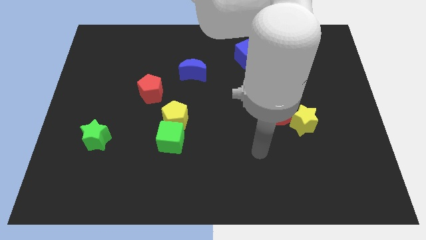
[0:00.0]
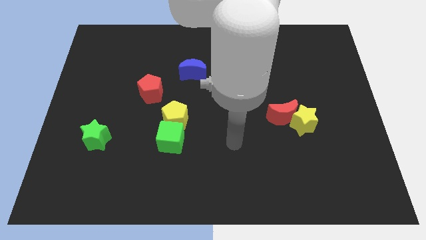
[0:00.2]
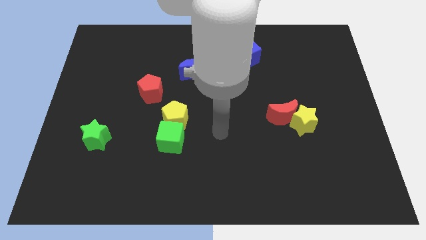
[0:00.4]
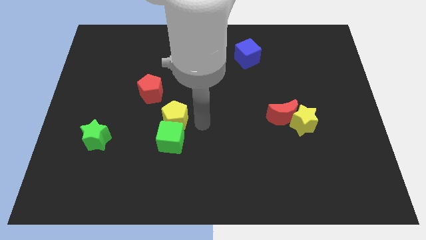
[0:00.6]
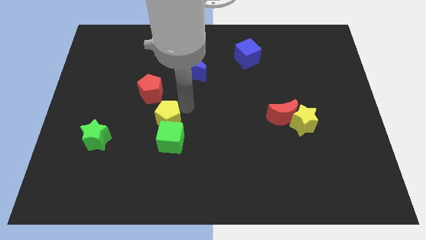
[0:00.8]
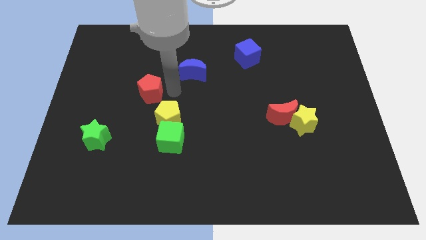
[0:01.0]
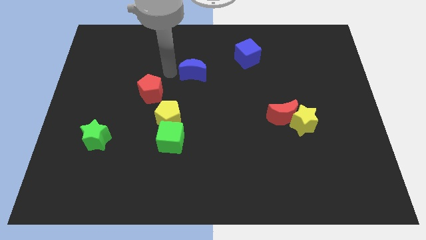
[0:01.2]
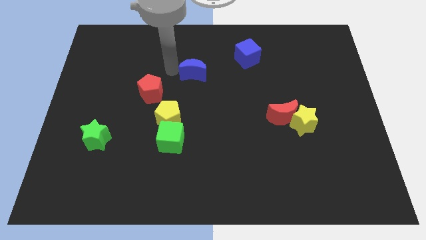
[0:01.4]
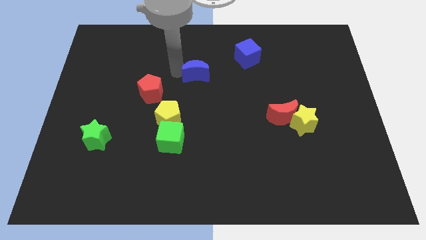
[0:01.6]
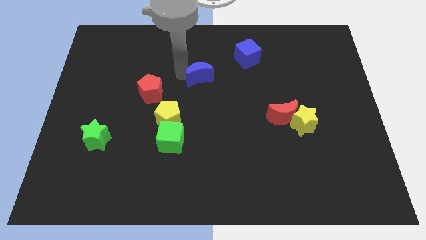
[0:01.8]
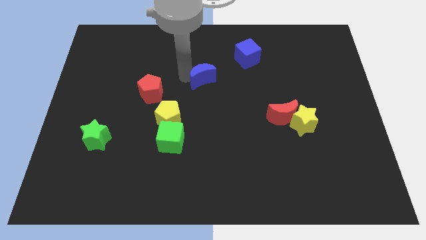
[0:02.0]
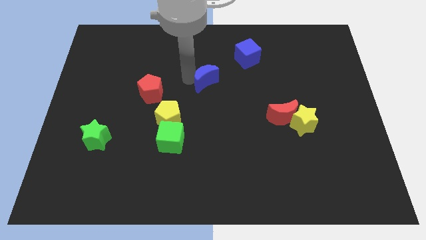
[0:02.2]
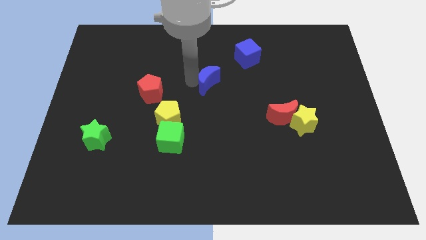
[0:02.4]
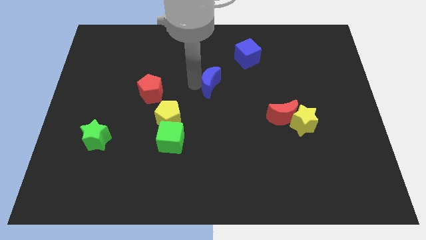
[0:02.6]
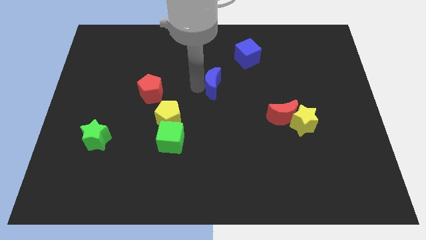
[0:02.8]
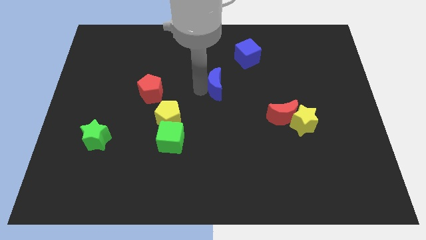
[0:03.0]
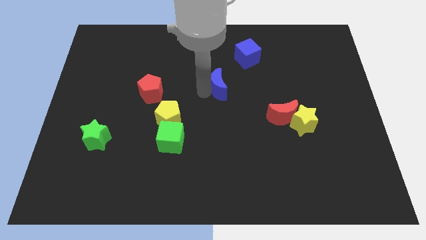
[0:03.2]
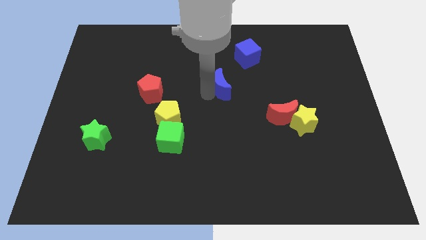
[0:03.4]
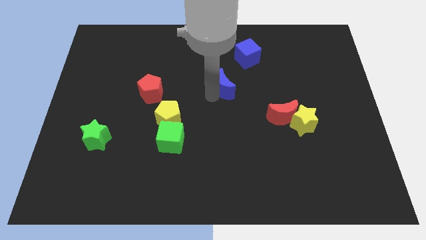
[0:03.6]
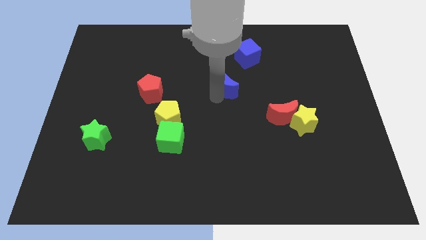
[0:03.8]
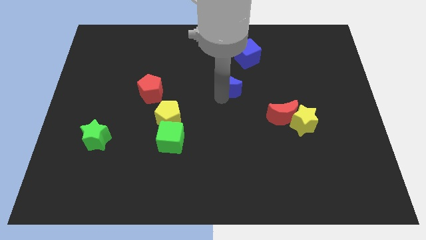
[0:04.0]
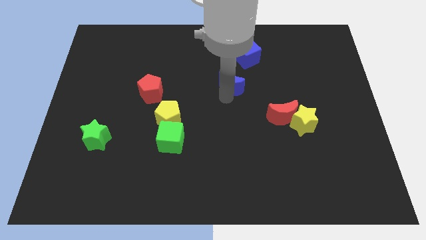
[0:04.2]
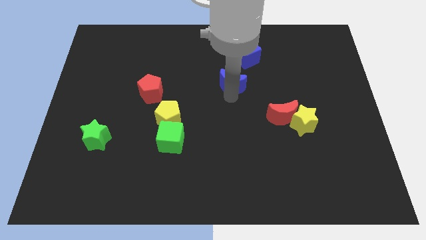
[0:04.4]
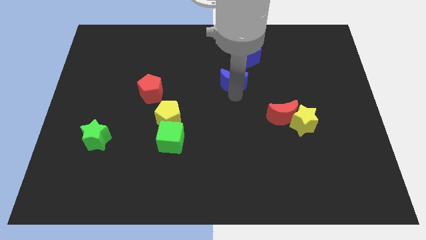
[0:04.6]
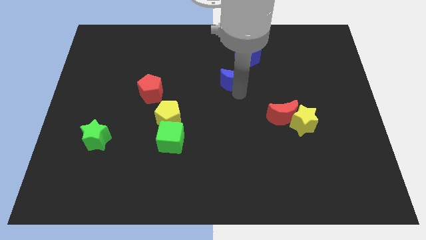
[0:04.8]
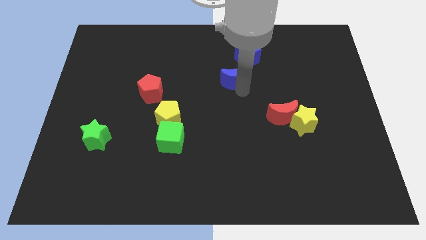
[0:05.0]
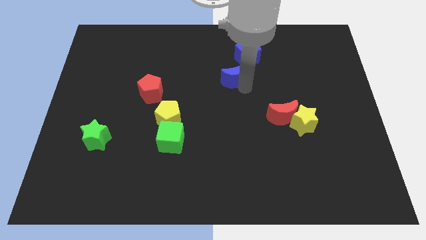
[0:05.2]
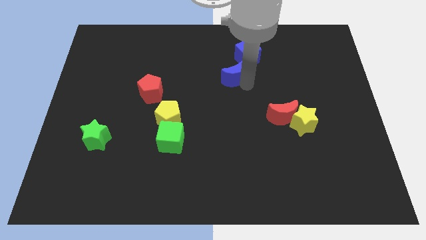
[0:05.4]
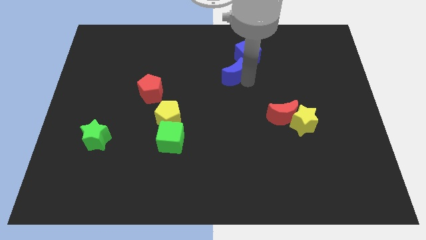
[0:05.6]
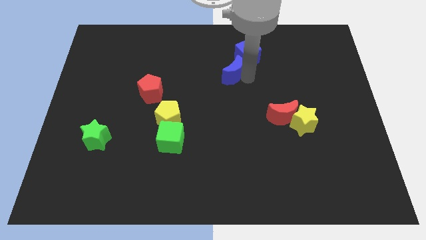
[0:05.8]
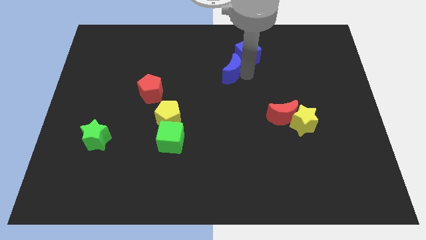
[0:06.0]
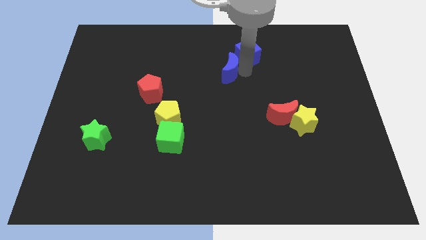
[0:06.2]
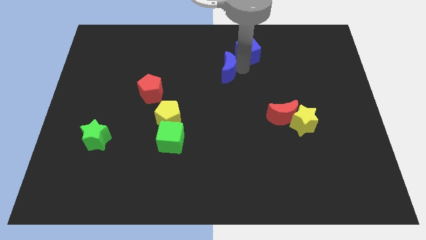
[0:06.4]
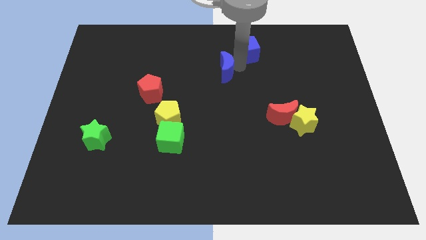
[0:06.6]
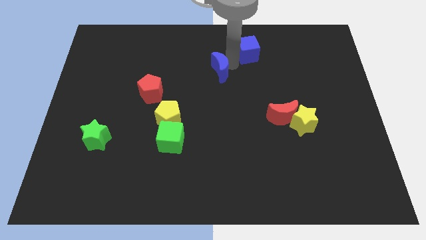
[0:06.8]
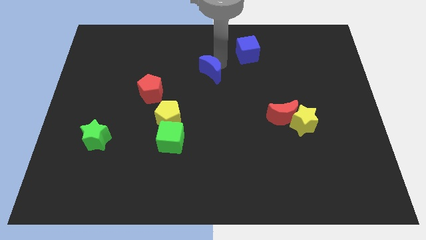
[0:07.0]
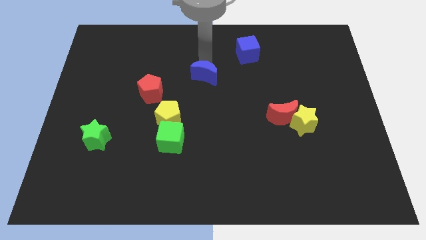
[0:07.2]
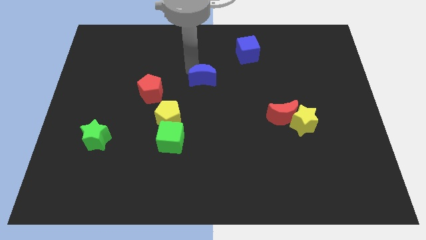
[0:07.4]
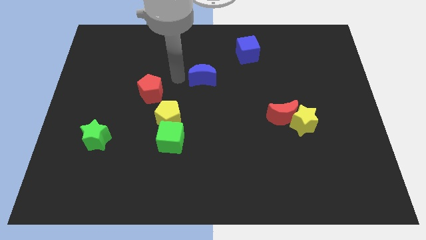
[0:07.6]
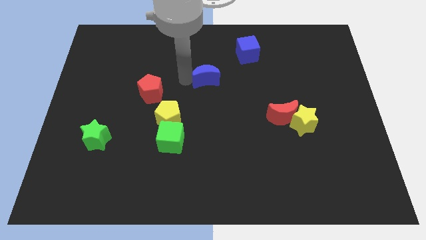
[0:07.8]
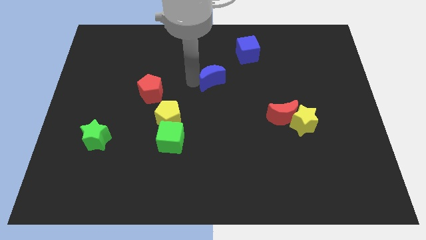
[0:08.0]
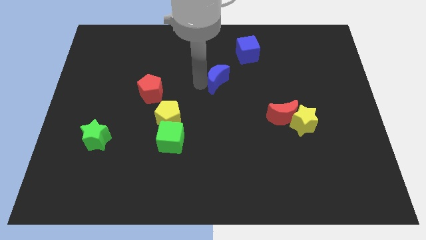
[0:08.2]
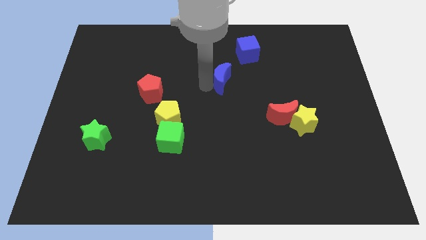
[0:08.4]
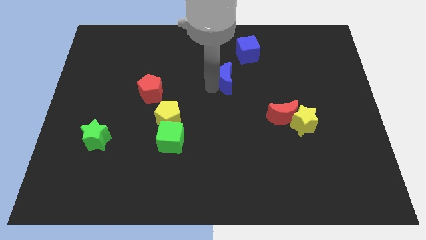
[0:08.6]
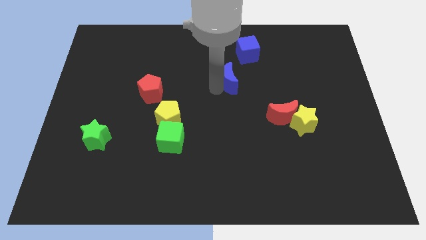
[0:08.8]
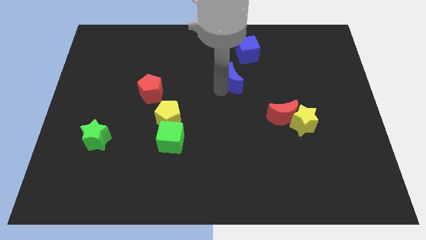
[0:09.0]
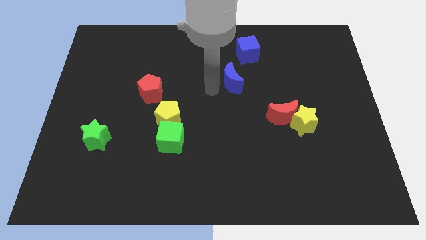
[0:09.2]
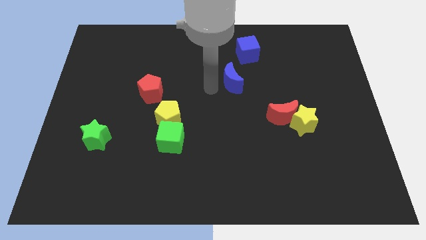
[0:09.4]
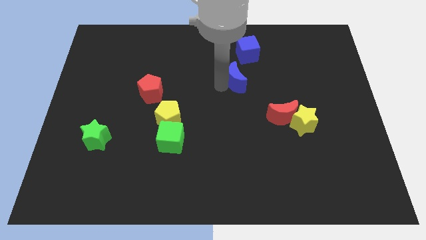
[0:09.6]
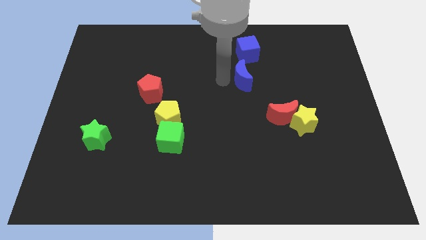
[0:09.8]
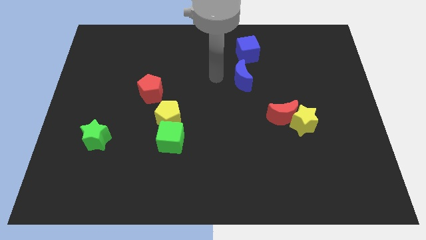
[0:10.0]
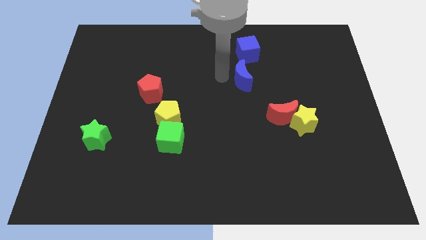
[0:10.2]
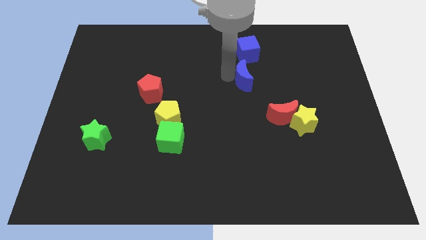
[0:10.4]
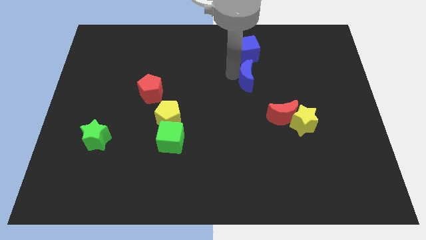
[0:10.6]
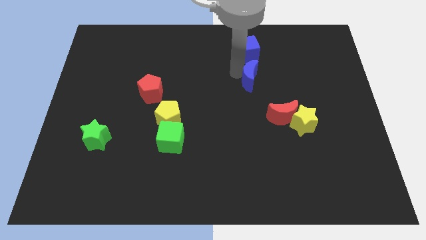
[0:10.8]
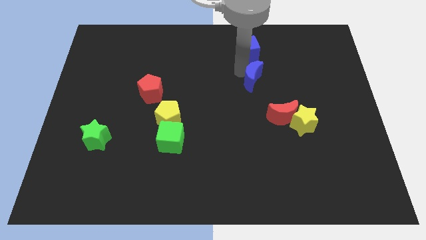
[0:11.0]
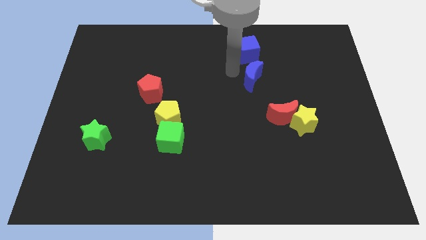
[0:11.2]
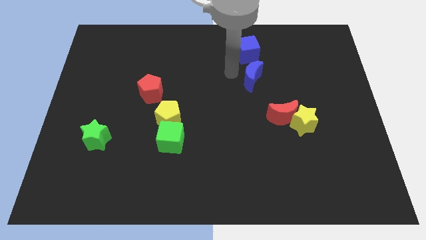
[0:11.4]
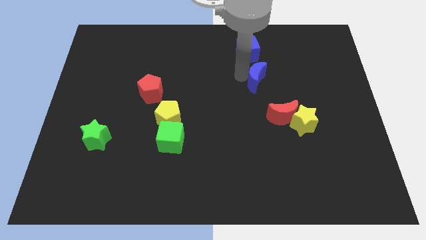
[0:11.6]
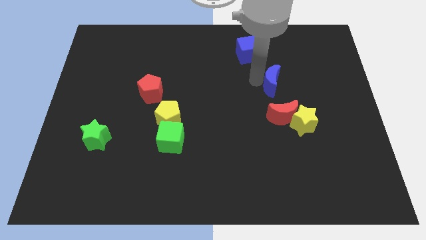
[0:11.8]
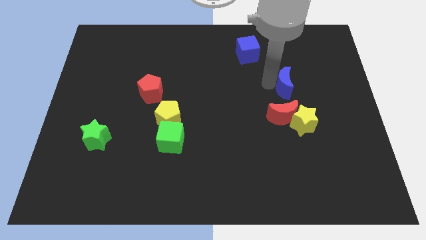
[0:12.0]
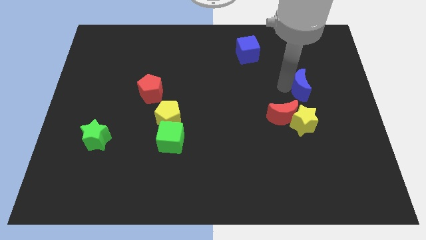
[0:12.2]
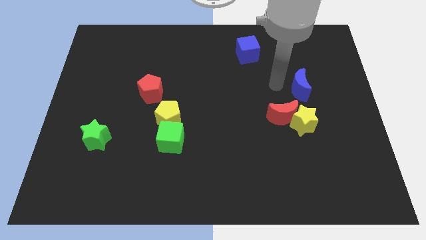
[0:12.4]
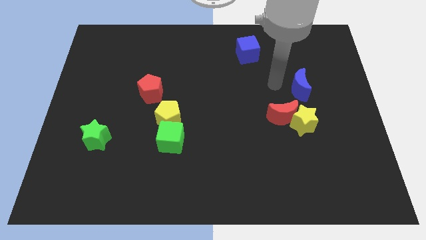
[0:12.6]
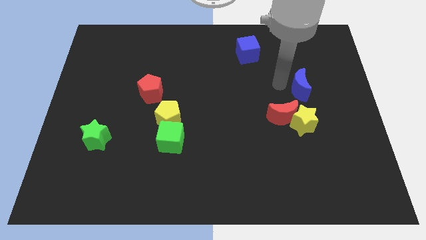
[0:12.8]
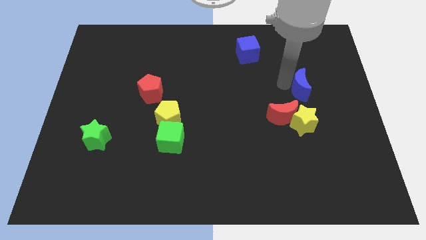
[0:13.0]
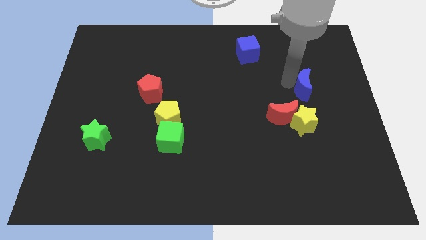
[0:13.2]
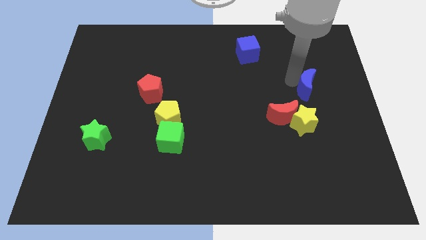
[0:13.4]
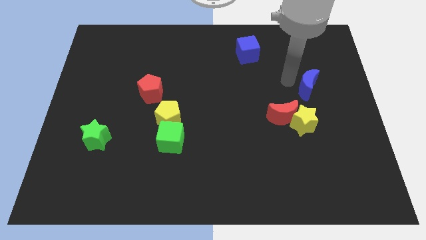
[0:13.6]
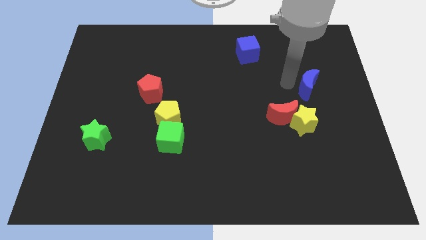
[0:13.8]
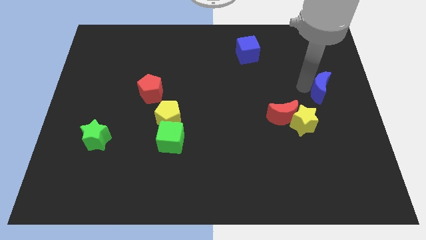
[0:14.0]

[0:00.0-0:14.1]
move the blue moon to the center right
